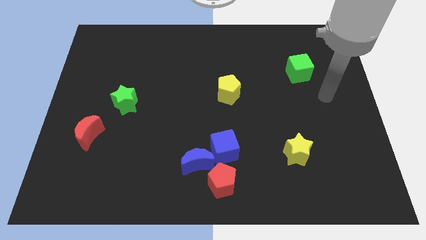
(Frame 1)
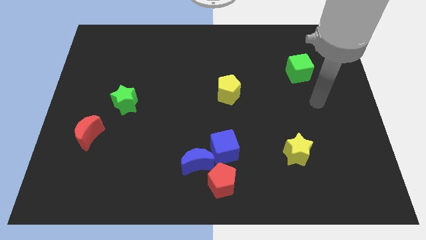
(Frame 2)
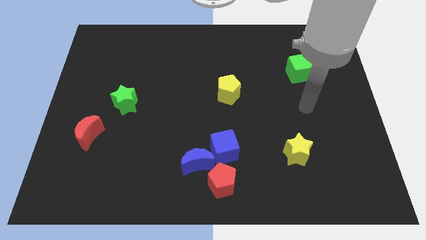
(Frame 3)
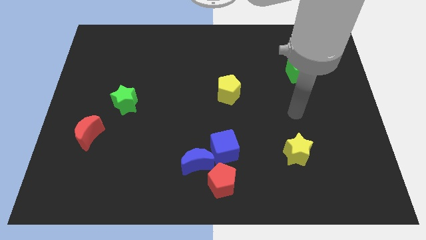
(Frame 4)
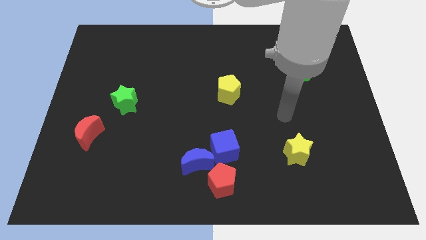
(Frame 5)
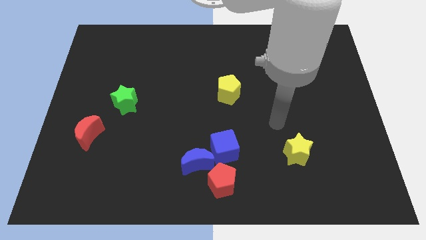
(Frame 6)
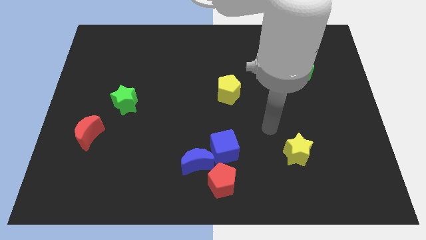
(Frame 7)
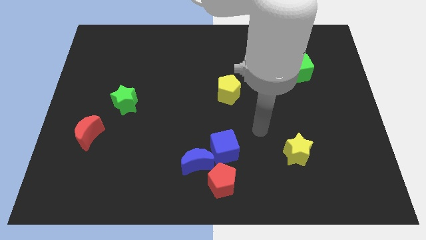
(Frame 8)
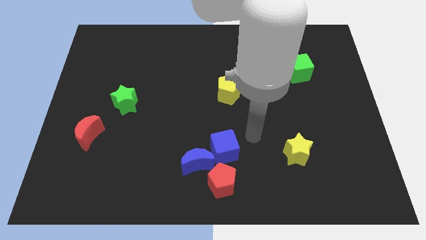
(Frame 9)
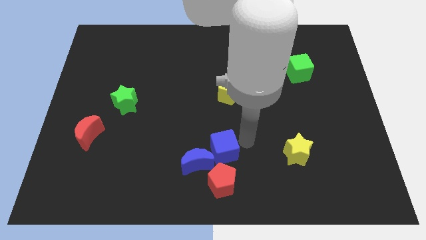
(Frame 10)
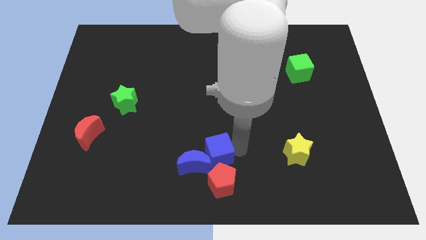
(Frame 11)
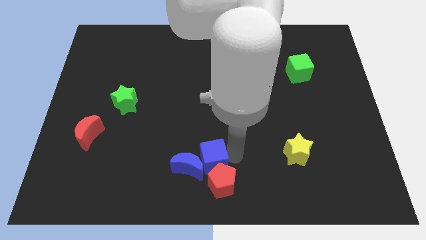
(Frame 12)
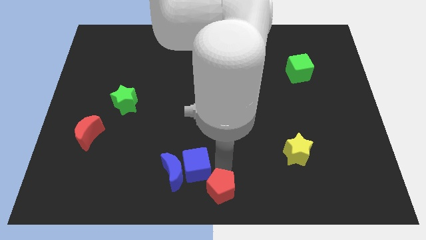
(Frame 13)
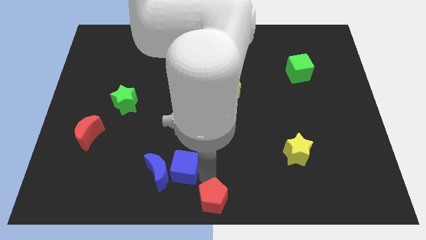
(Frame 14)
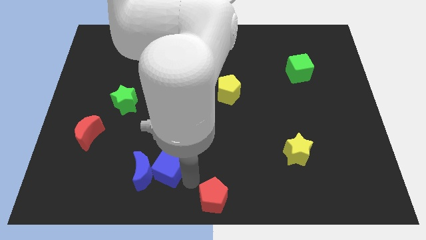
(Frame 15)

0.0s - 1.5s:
move the blue moon away from the blue cube and red pentagon

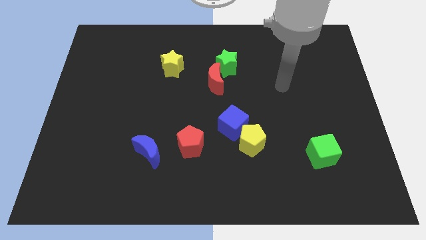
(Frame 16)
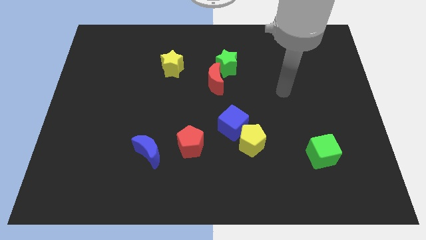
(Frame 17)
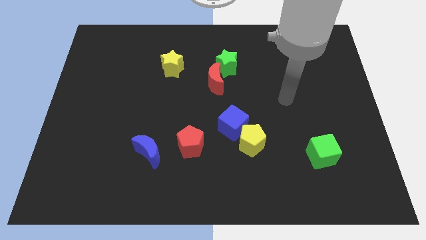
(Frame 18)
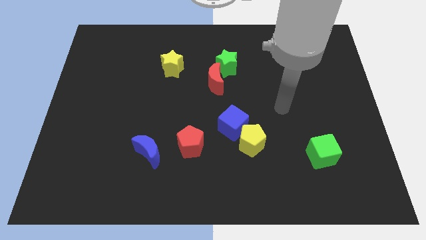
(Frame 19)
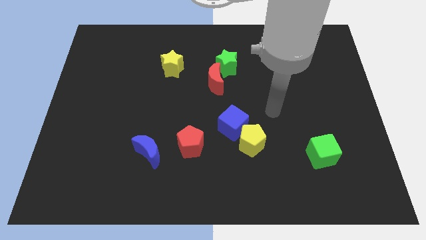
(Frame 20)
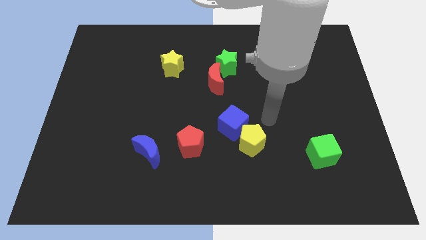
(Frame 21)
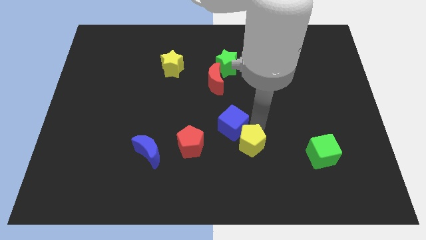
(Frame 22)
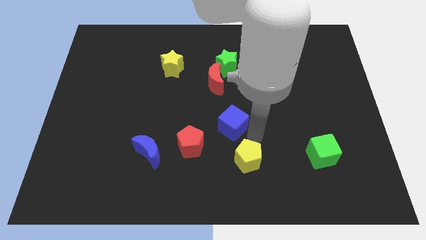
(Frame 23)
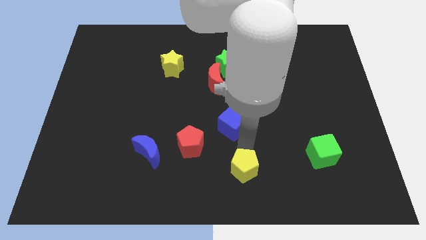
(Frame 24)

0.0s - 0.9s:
pull the blue cube apart from the yellow pentagon

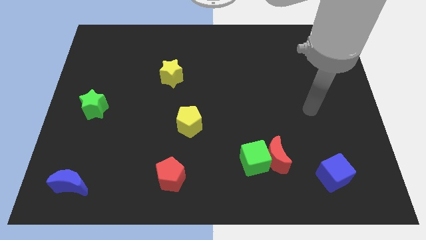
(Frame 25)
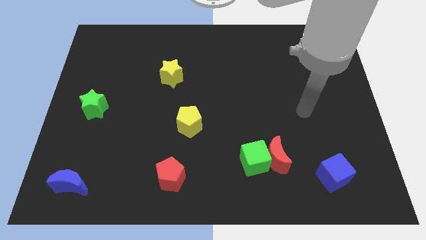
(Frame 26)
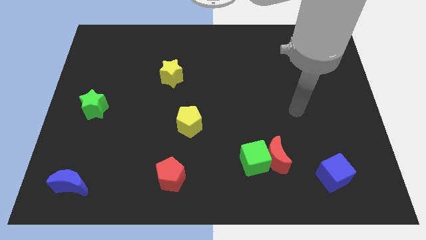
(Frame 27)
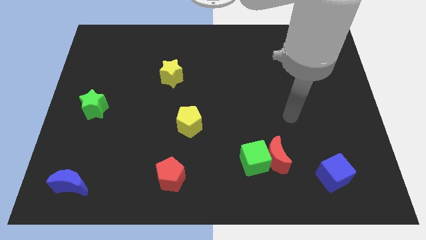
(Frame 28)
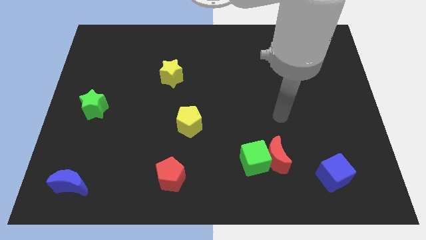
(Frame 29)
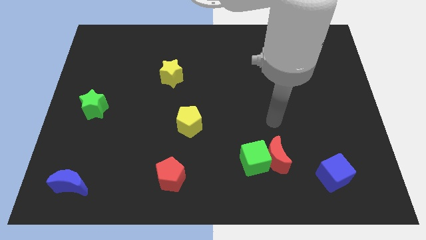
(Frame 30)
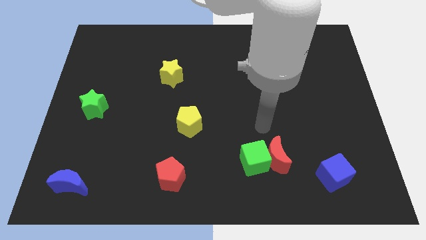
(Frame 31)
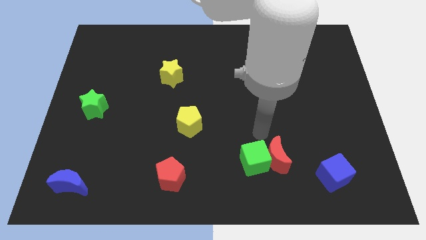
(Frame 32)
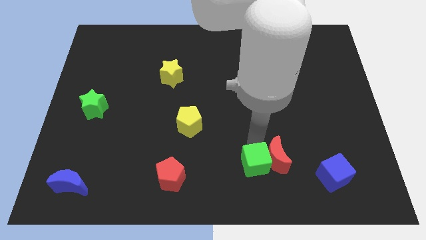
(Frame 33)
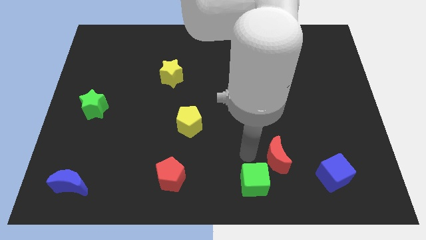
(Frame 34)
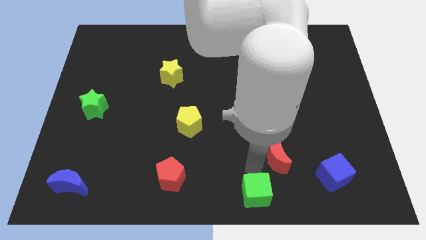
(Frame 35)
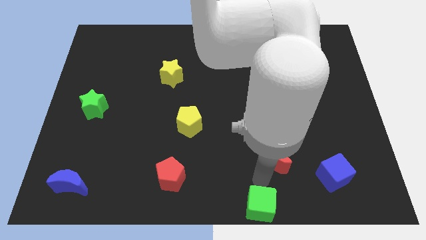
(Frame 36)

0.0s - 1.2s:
move the red moon away from the green cube

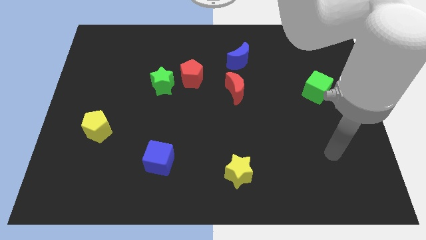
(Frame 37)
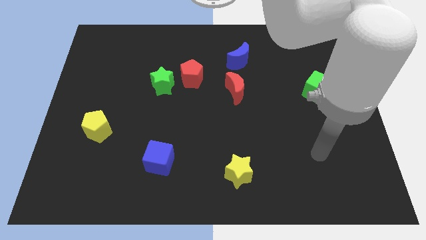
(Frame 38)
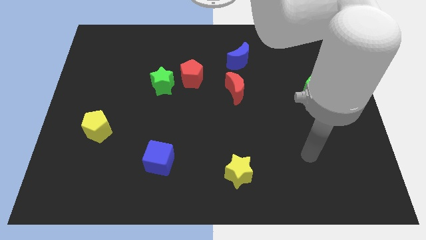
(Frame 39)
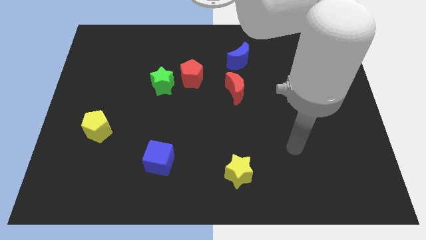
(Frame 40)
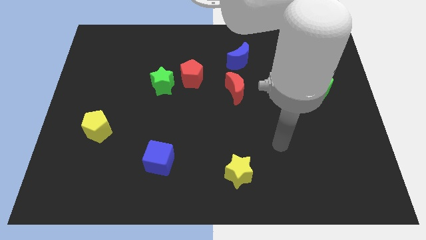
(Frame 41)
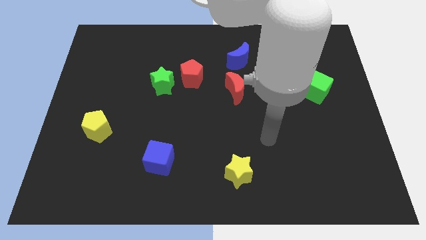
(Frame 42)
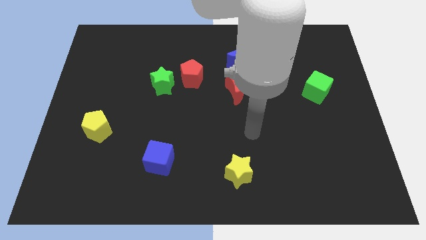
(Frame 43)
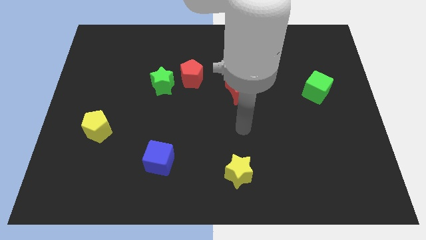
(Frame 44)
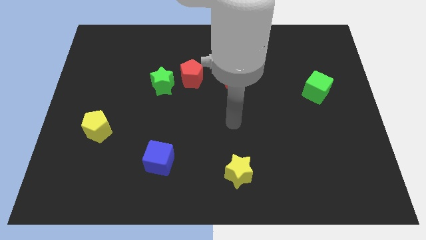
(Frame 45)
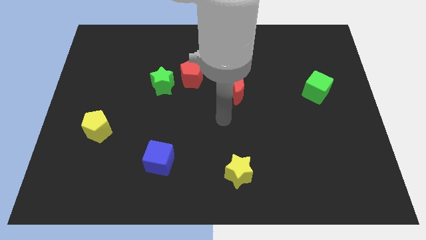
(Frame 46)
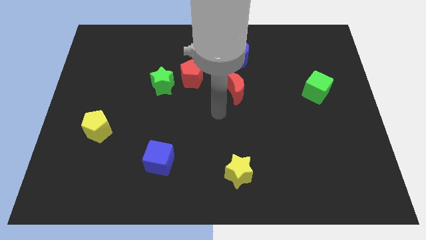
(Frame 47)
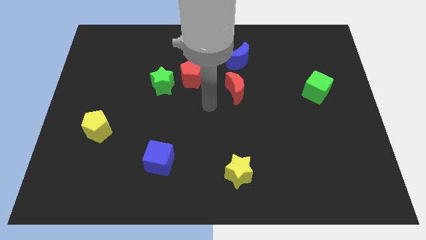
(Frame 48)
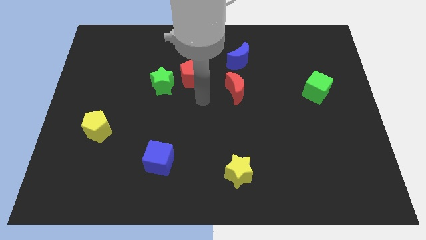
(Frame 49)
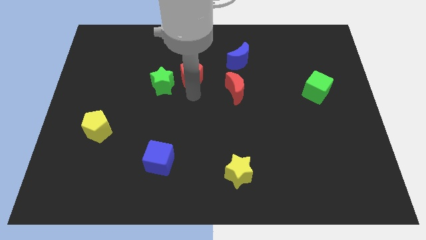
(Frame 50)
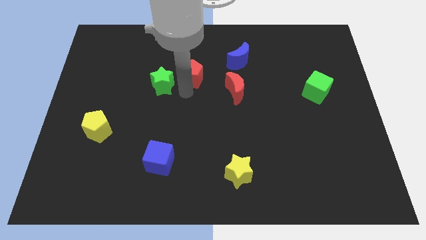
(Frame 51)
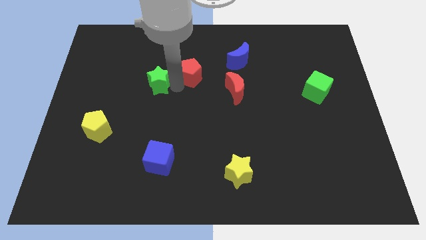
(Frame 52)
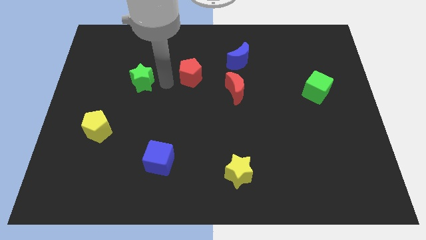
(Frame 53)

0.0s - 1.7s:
separate the red pentagon from the green star

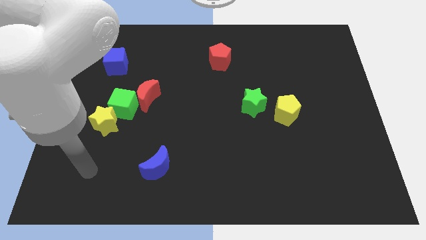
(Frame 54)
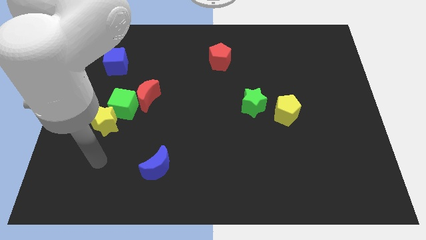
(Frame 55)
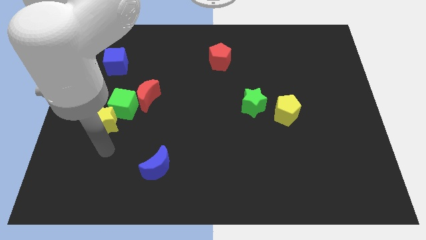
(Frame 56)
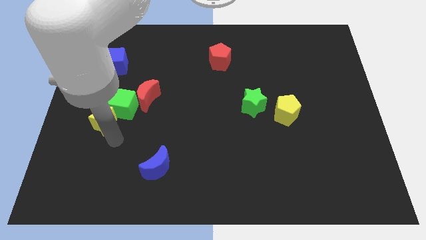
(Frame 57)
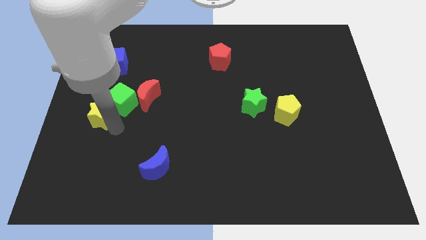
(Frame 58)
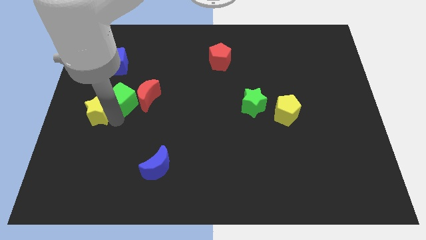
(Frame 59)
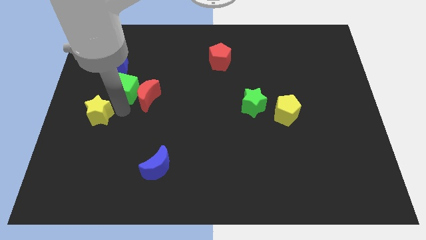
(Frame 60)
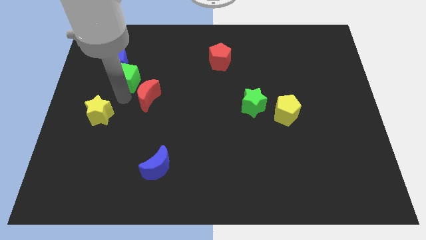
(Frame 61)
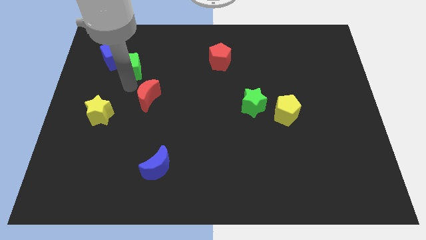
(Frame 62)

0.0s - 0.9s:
pull the red moon apart from the green cube

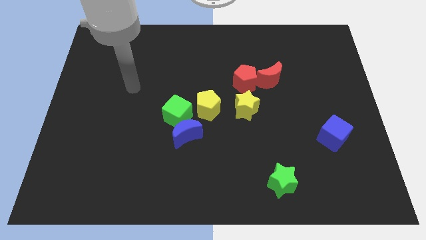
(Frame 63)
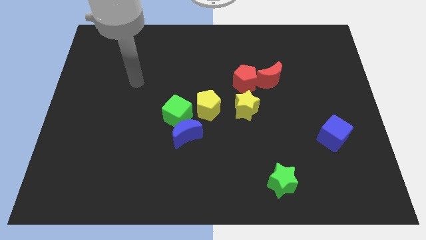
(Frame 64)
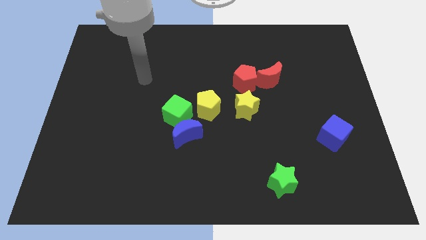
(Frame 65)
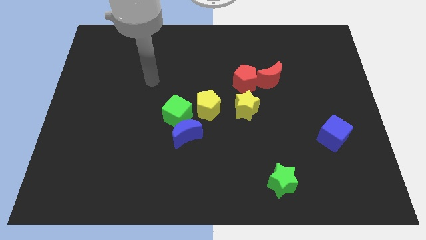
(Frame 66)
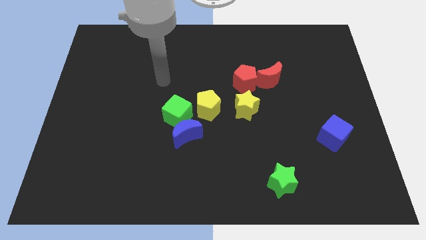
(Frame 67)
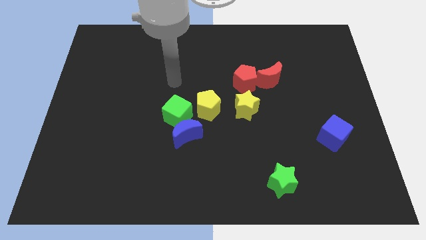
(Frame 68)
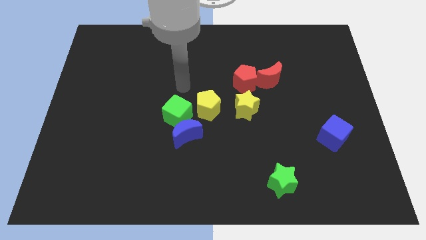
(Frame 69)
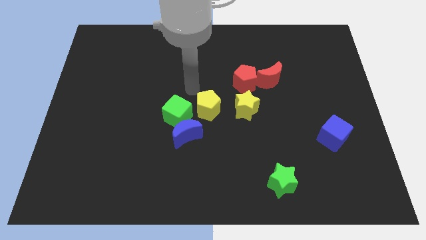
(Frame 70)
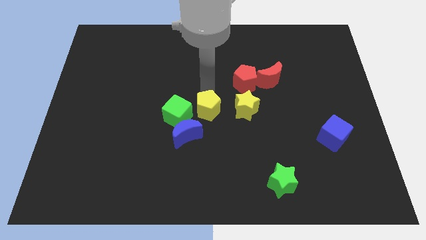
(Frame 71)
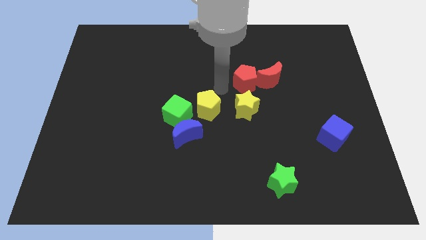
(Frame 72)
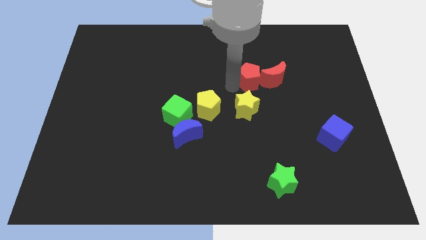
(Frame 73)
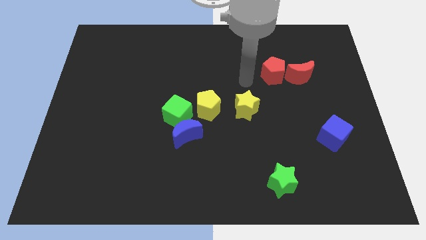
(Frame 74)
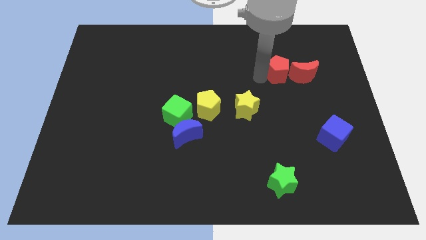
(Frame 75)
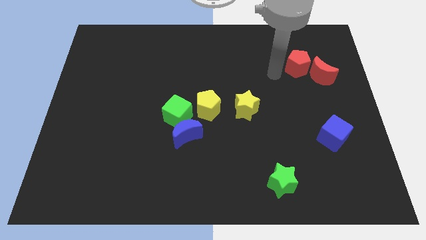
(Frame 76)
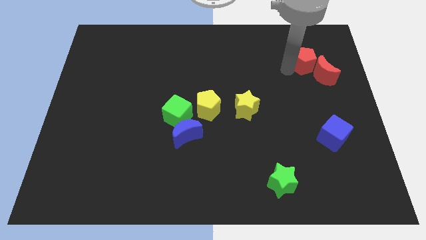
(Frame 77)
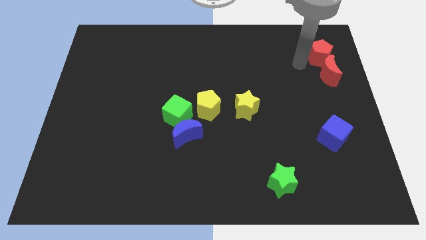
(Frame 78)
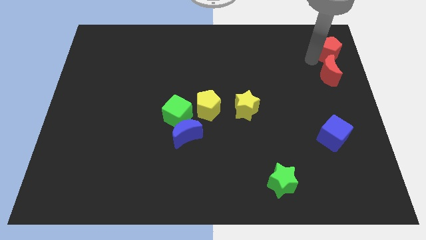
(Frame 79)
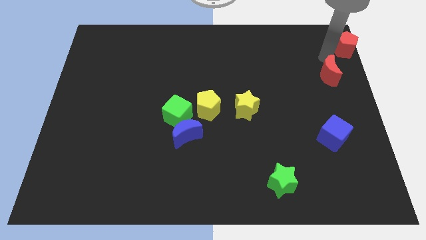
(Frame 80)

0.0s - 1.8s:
pull the red moon apart from the red pentagon

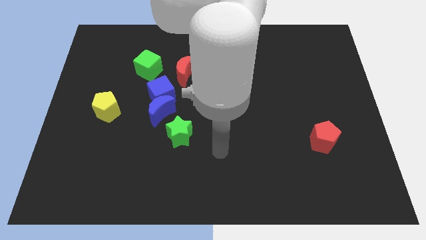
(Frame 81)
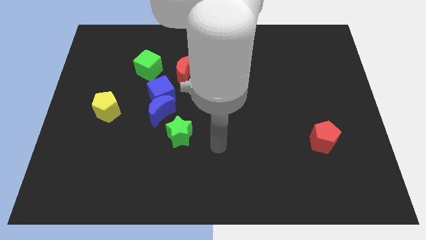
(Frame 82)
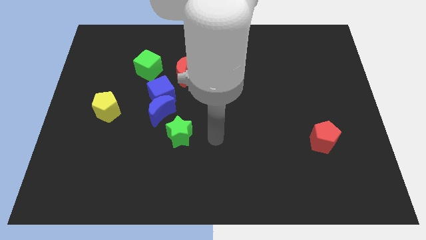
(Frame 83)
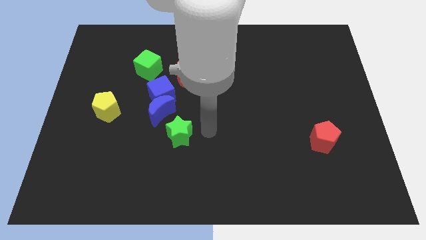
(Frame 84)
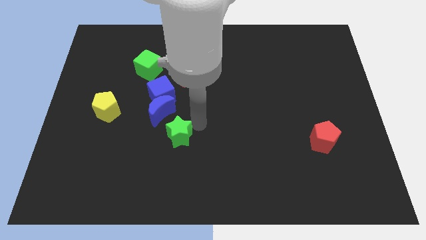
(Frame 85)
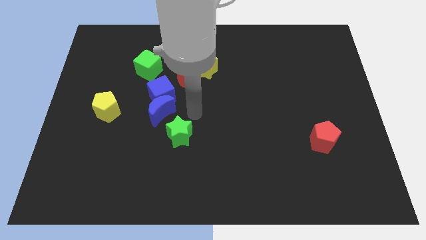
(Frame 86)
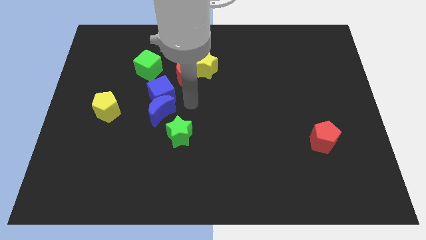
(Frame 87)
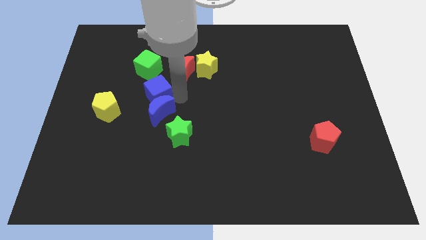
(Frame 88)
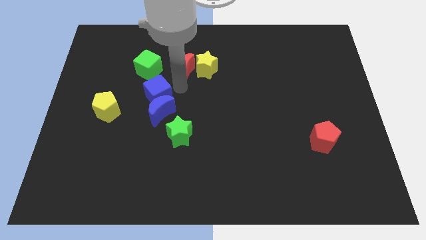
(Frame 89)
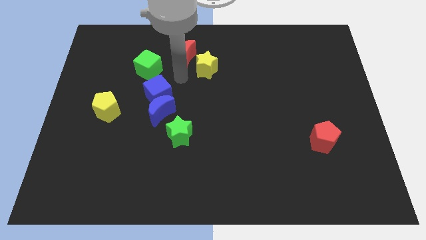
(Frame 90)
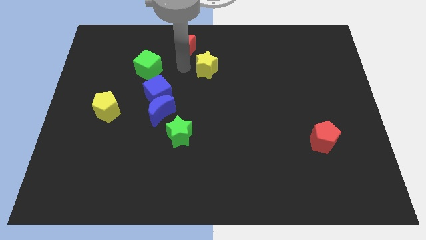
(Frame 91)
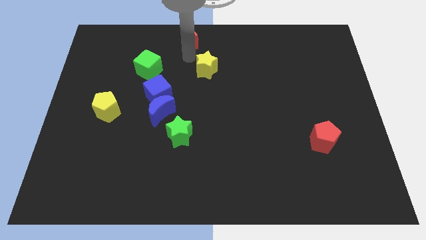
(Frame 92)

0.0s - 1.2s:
move the yellow star away from the red moon
